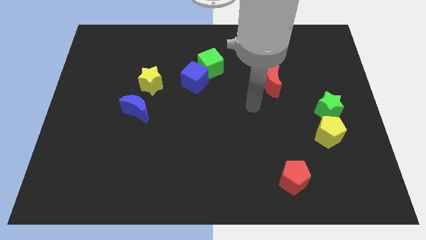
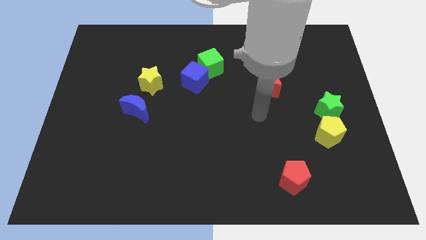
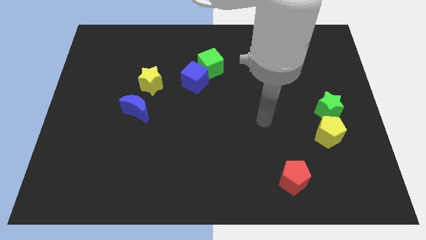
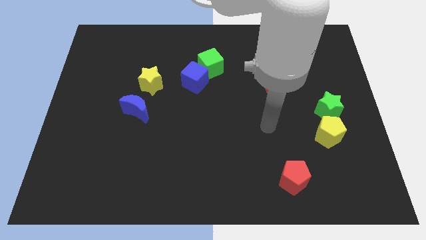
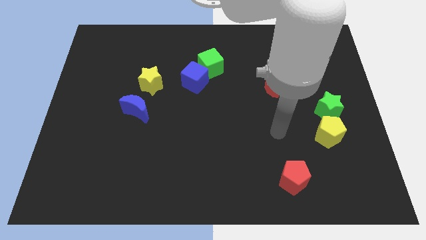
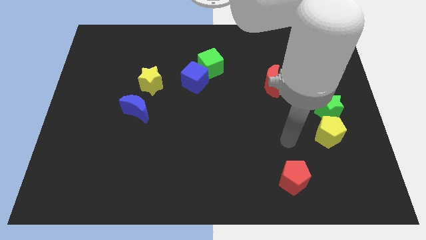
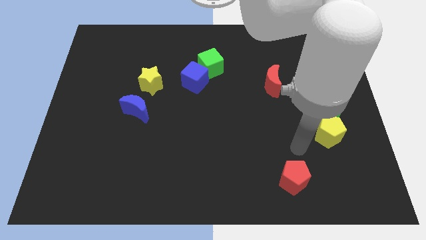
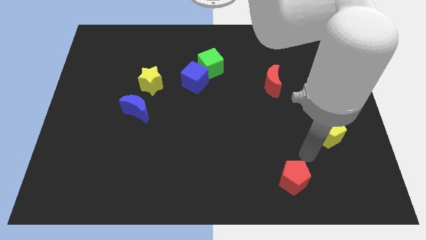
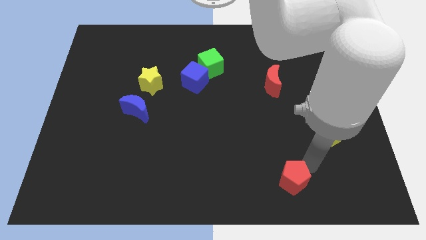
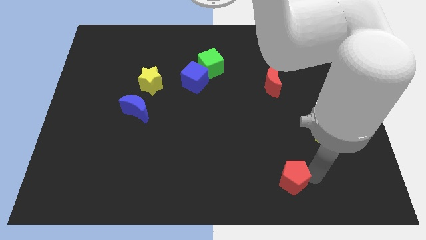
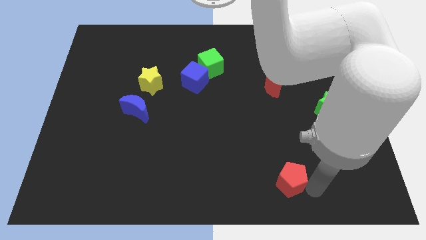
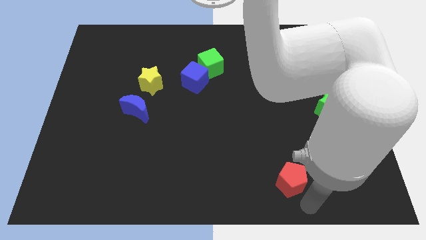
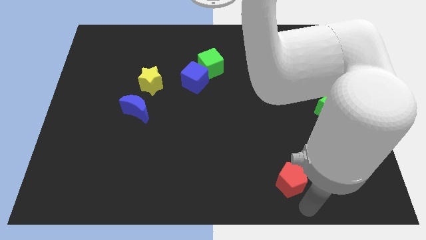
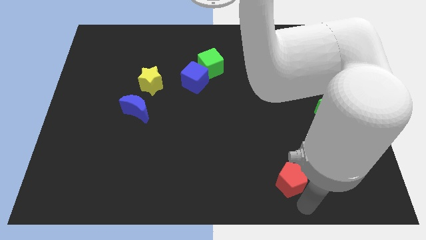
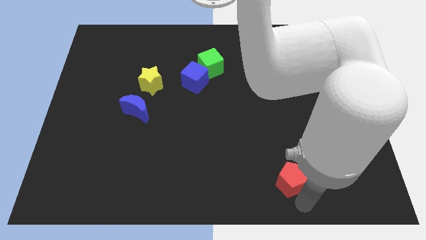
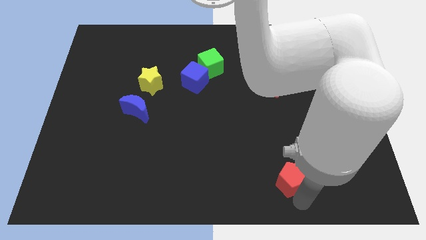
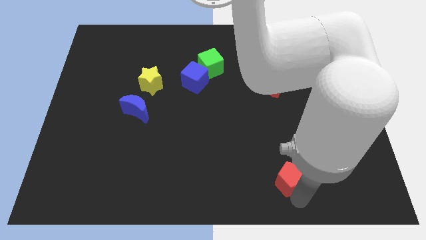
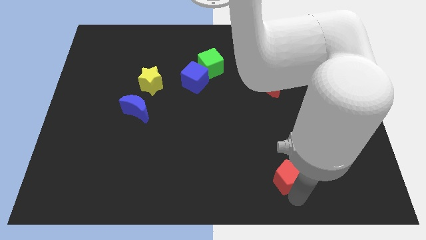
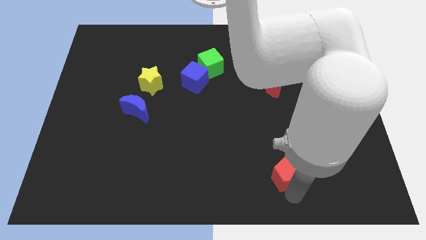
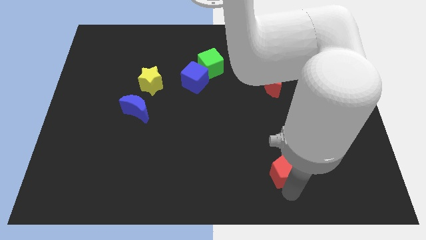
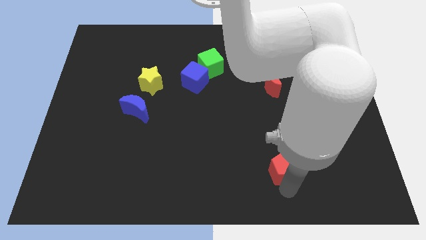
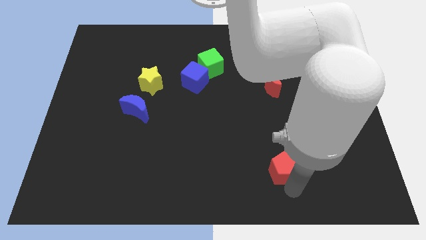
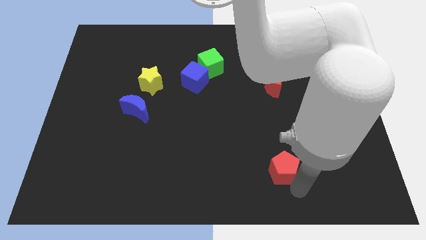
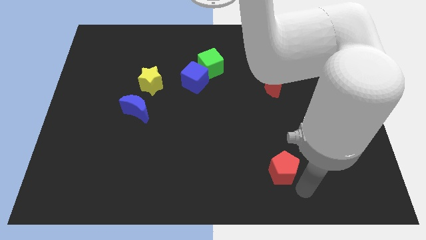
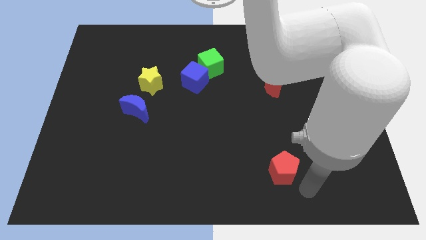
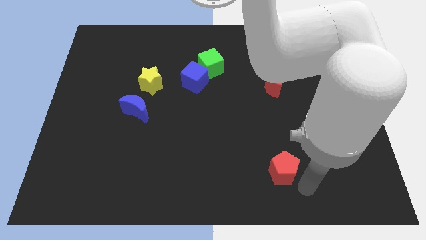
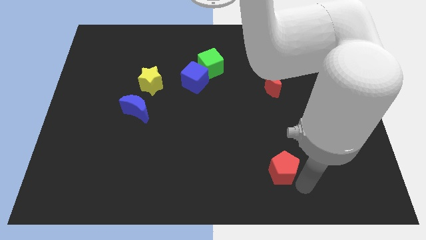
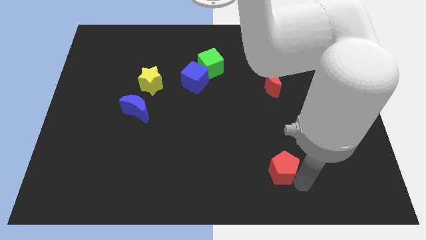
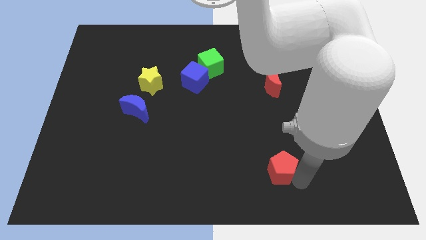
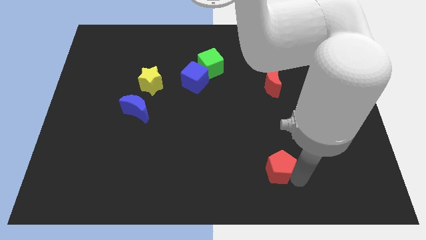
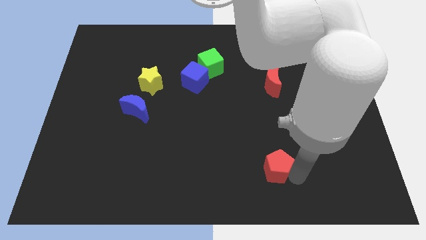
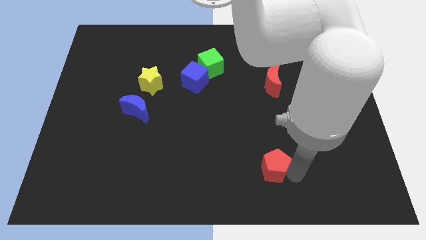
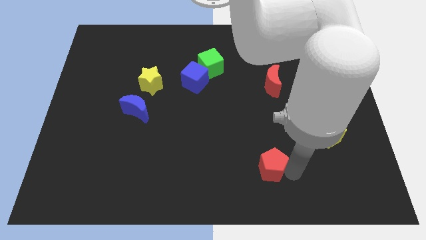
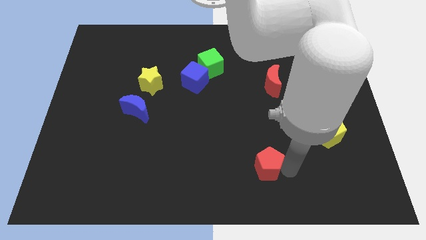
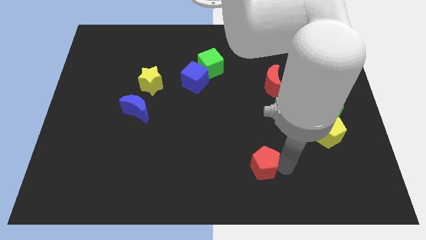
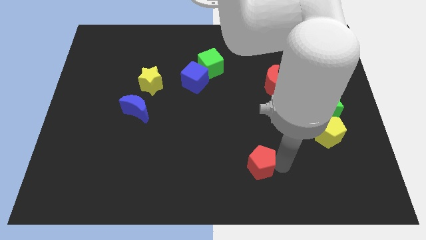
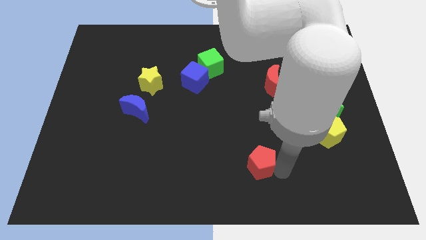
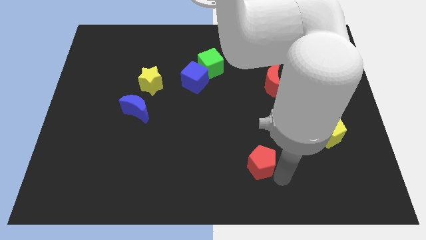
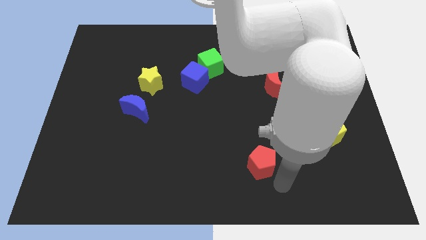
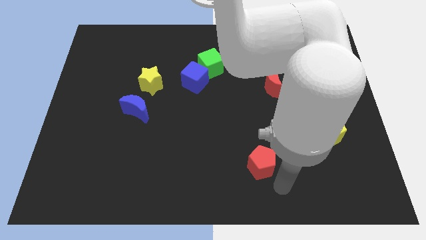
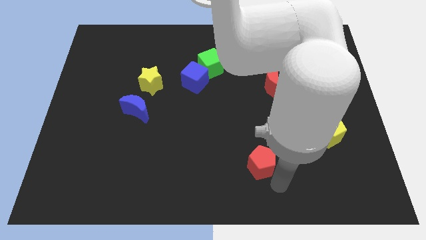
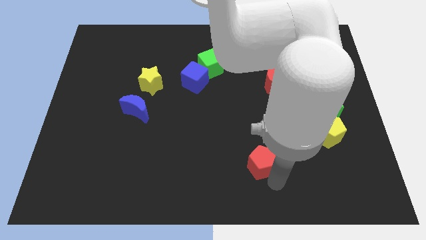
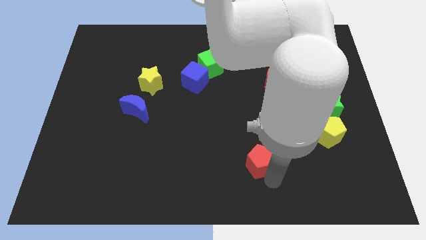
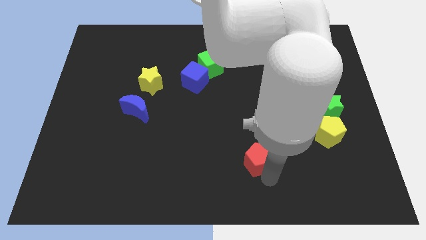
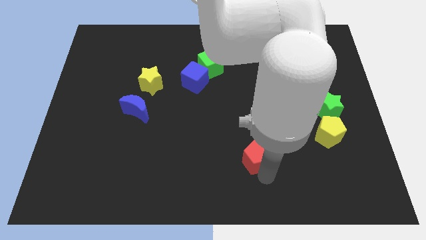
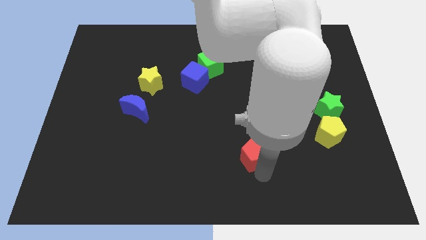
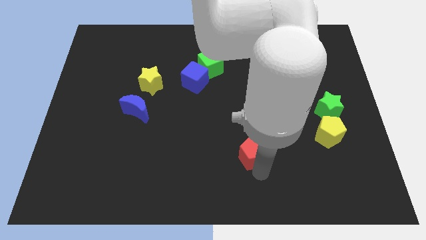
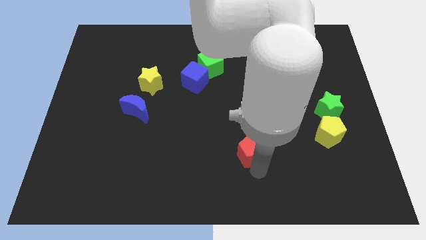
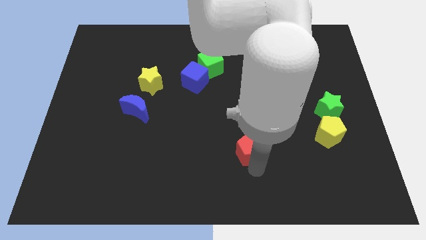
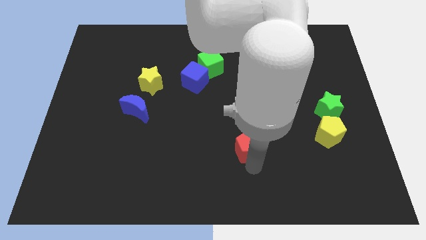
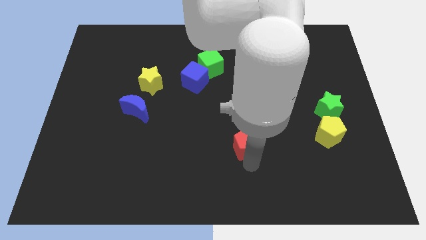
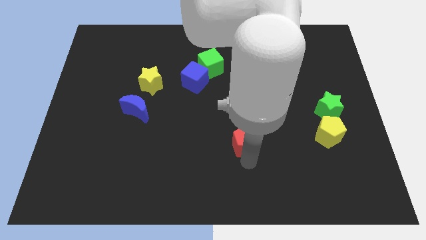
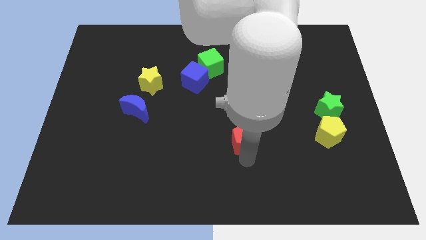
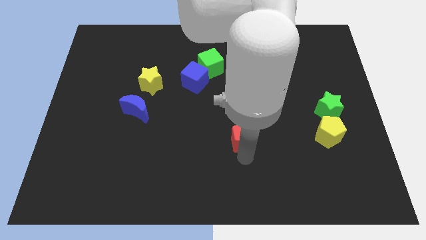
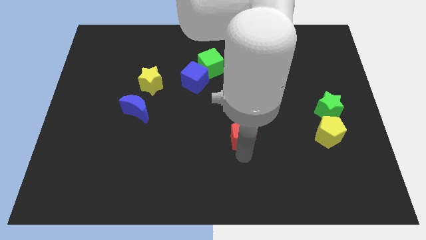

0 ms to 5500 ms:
put the red pentagon to the center

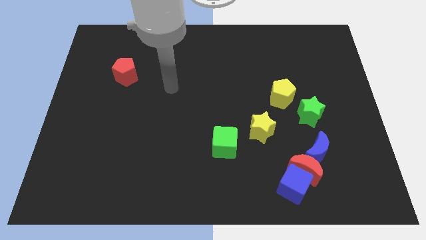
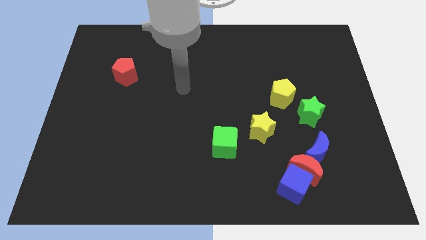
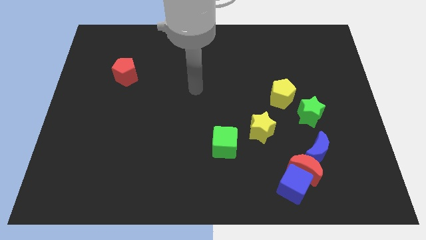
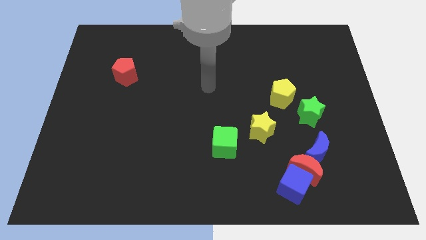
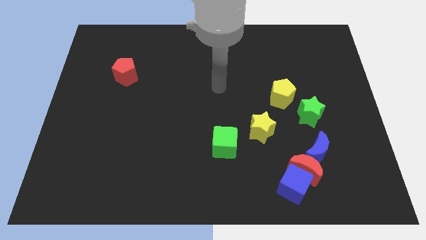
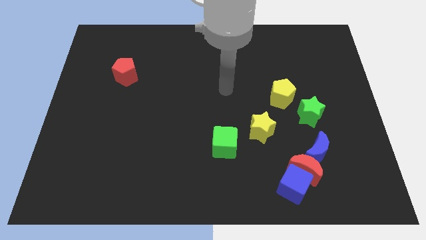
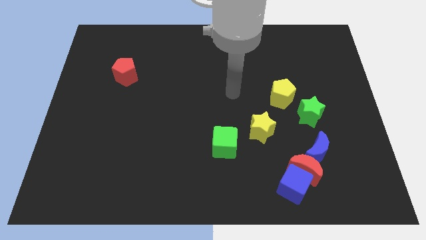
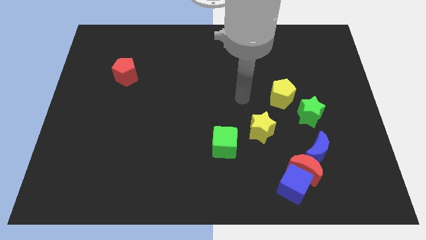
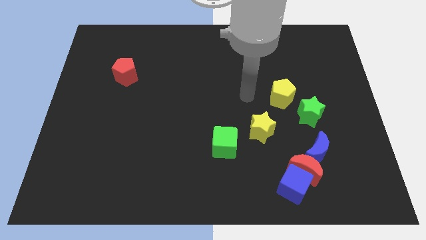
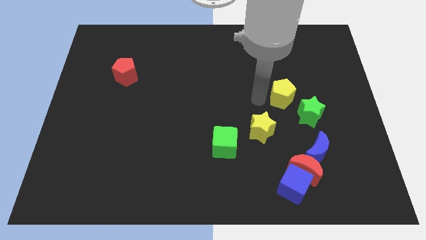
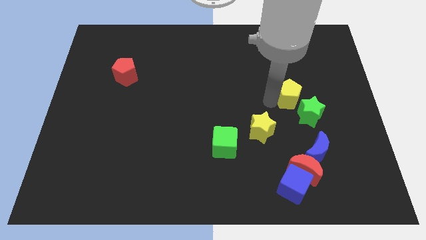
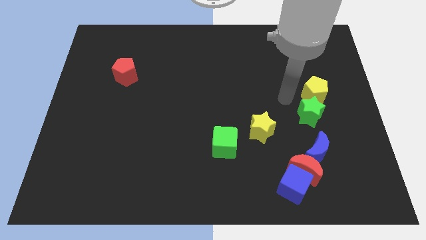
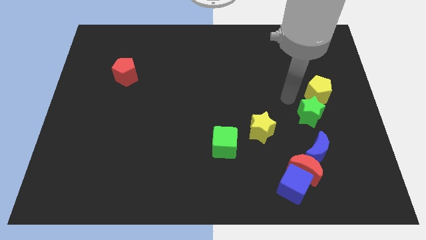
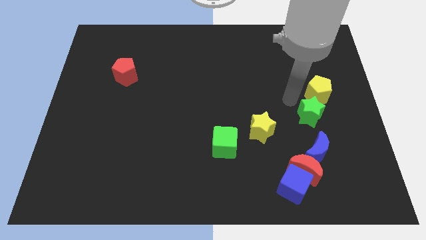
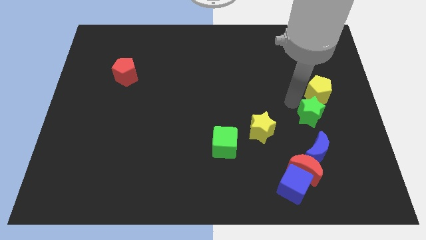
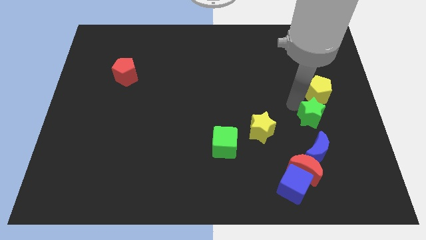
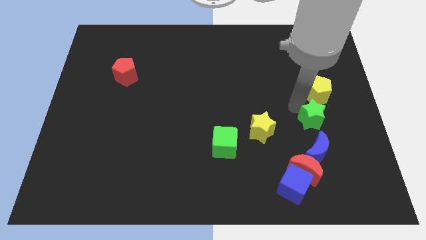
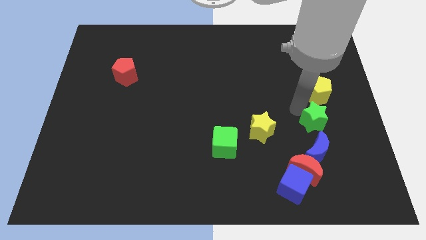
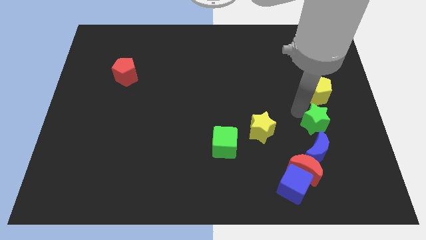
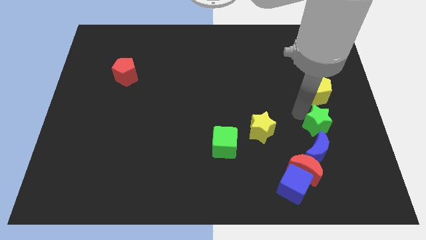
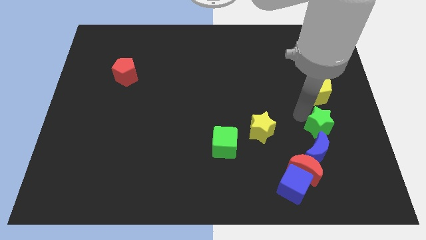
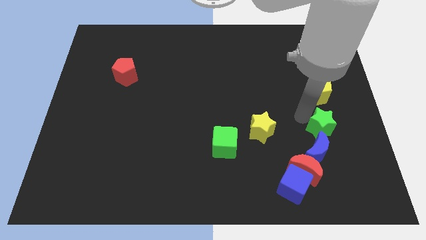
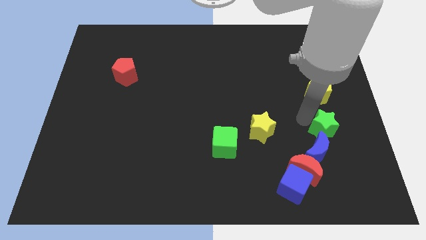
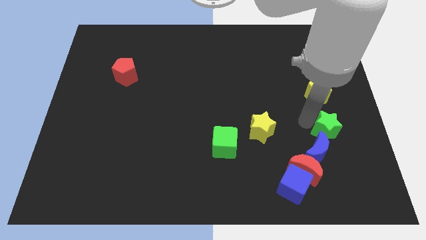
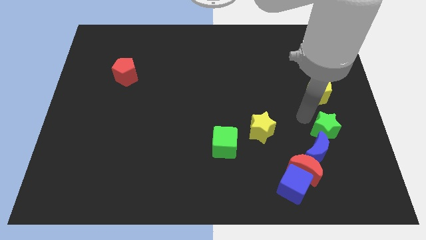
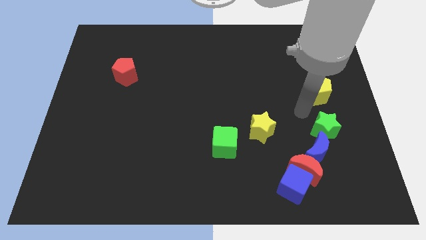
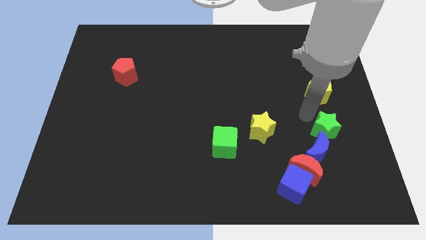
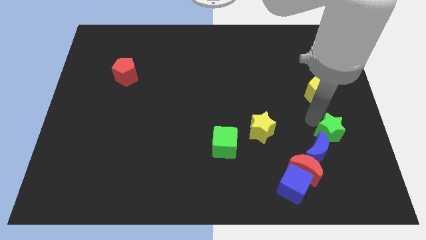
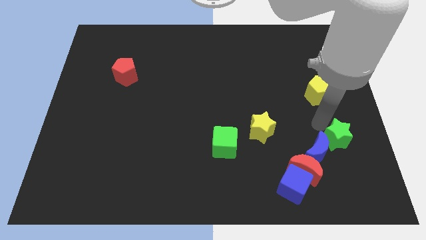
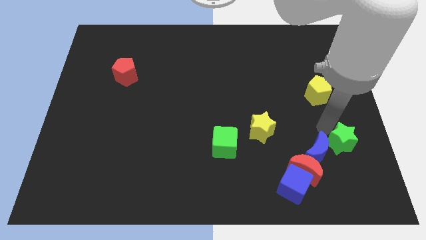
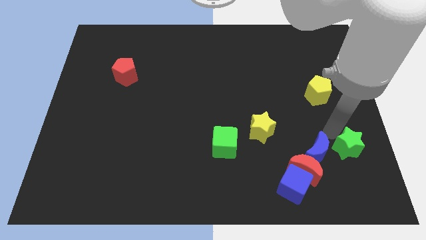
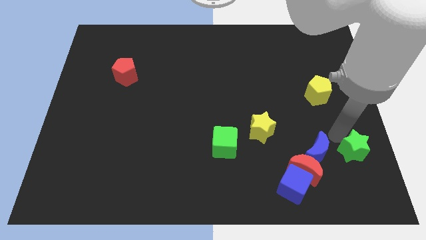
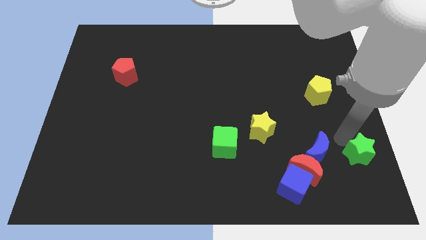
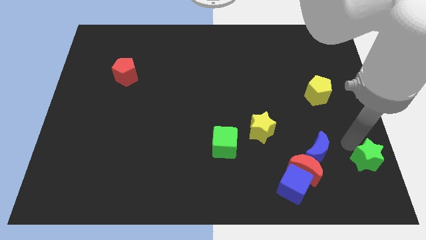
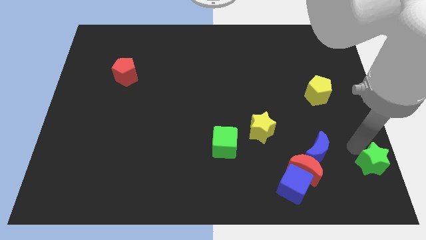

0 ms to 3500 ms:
put the green star to the lower right corner
